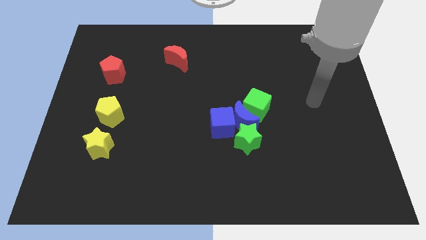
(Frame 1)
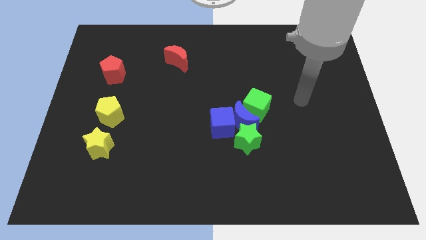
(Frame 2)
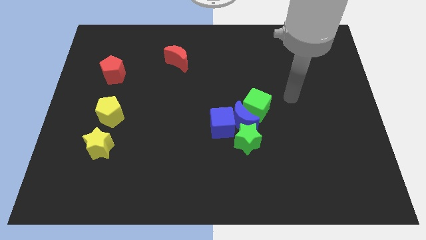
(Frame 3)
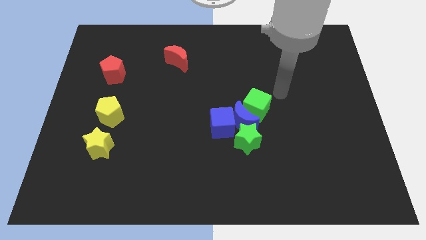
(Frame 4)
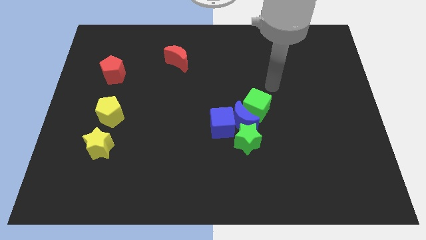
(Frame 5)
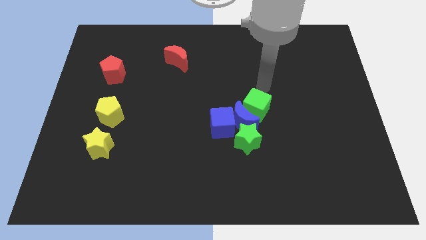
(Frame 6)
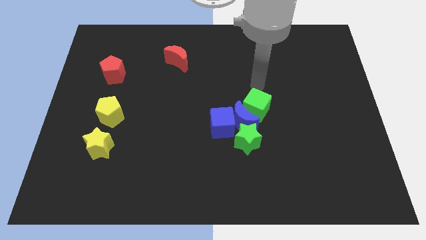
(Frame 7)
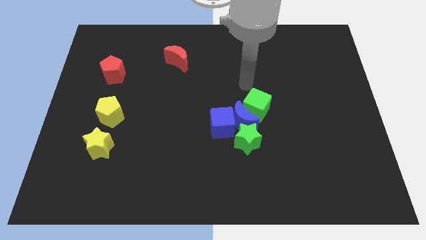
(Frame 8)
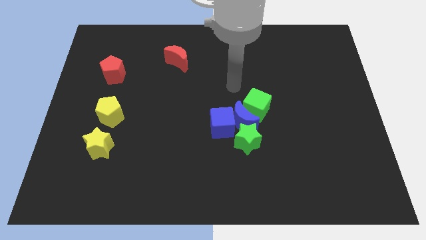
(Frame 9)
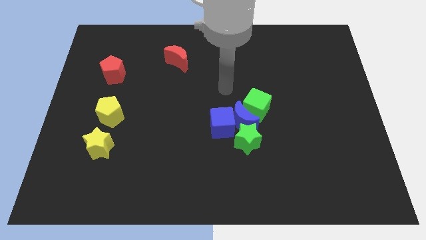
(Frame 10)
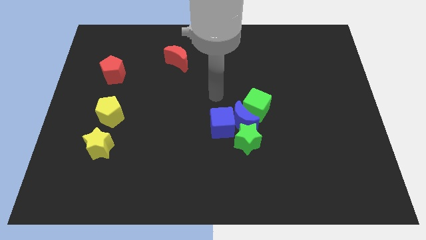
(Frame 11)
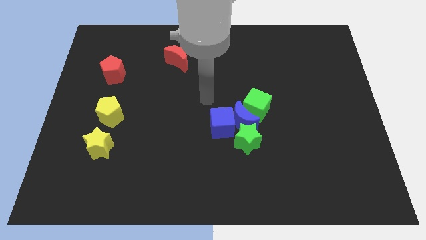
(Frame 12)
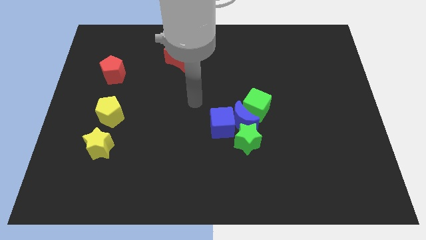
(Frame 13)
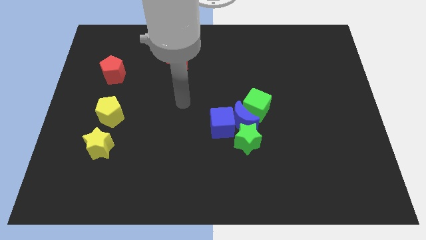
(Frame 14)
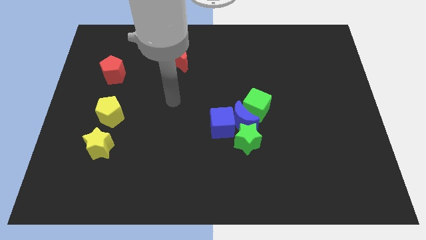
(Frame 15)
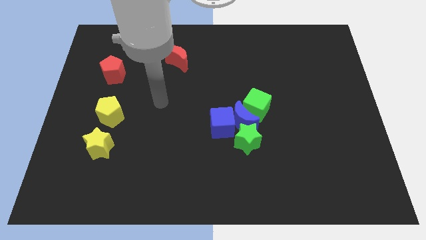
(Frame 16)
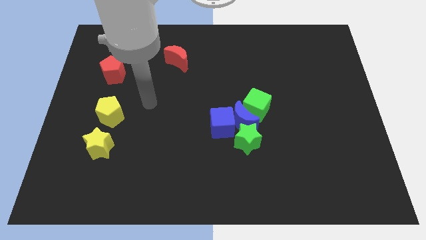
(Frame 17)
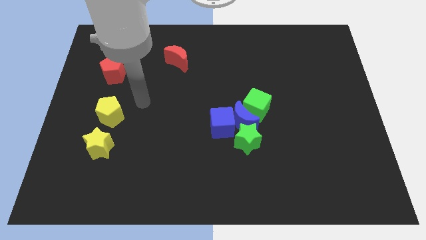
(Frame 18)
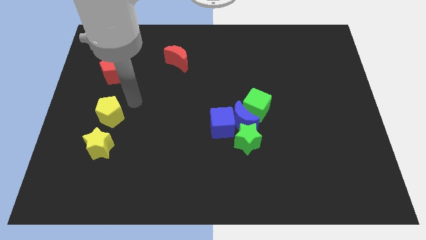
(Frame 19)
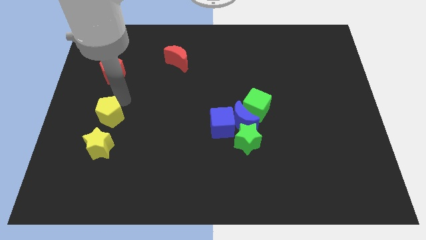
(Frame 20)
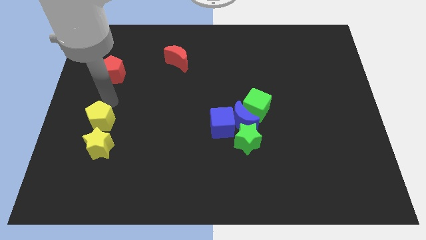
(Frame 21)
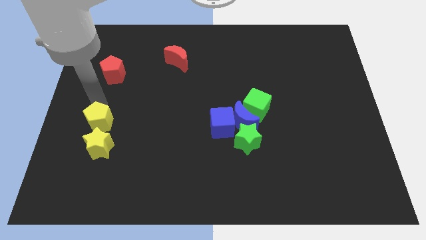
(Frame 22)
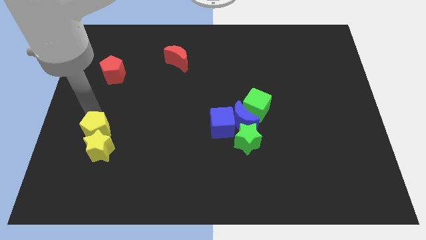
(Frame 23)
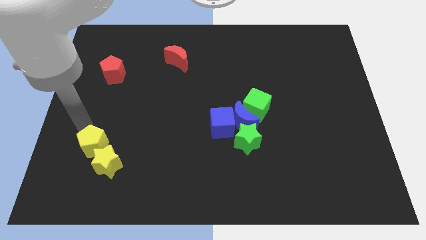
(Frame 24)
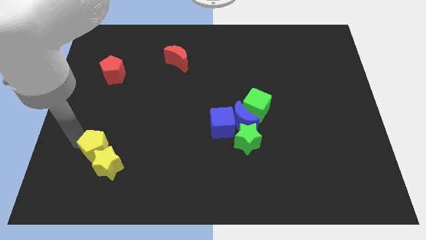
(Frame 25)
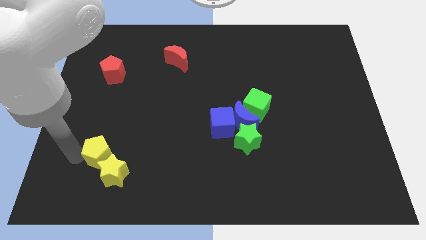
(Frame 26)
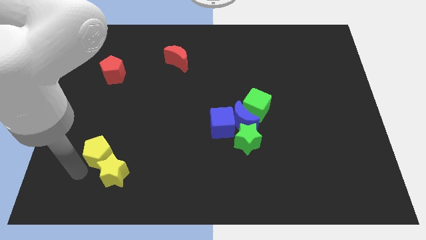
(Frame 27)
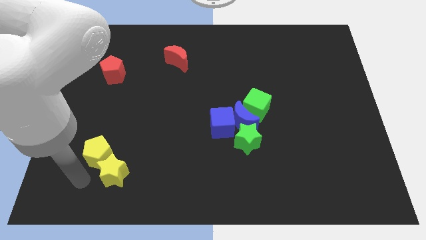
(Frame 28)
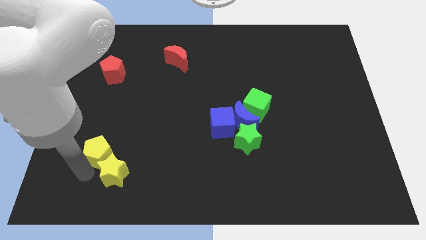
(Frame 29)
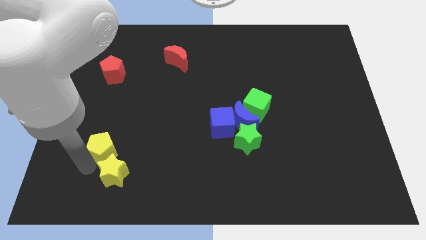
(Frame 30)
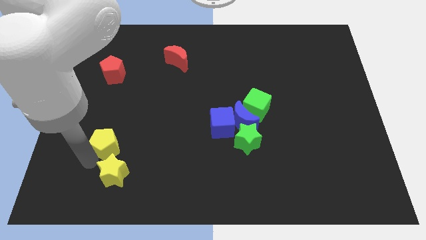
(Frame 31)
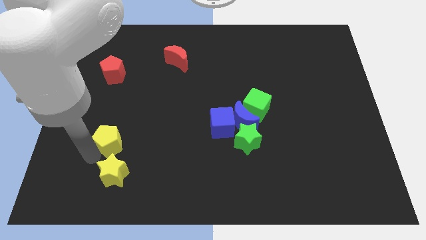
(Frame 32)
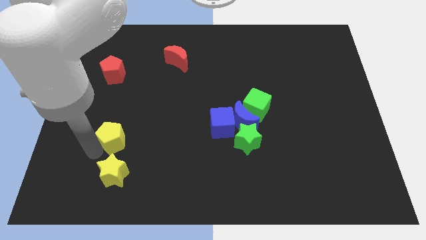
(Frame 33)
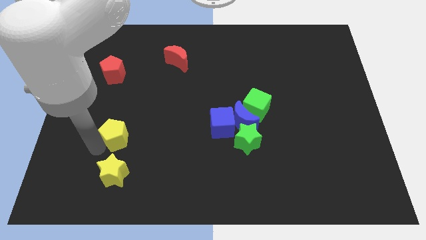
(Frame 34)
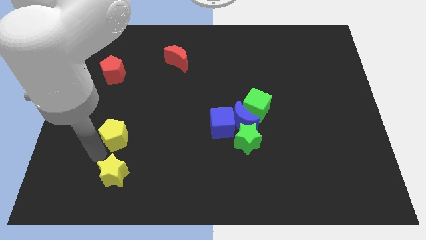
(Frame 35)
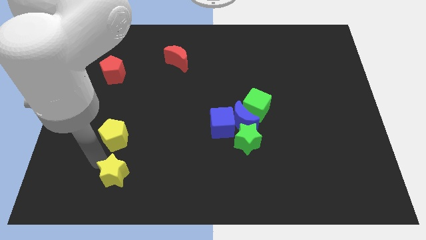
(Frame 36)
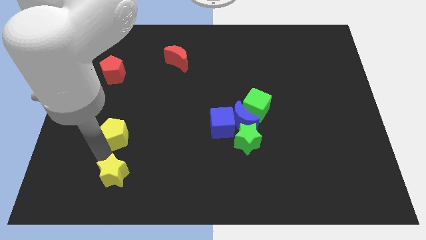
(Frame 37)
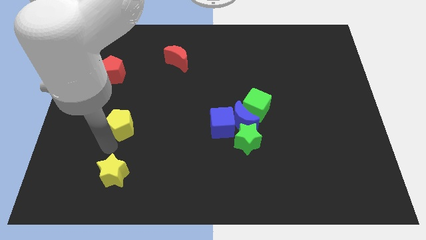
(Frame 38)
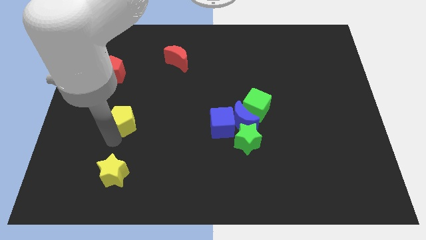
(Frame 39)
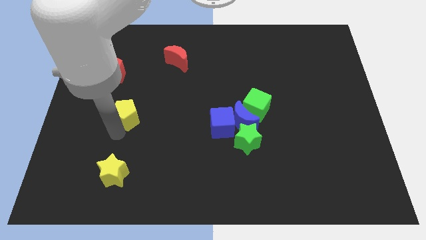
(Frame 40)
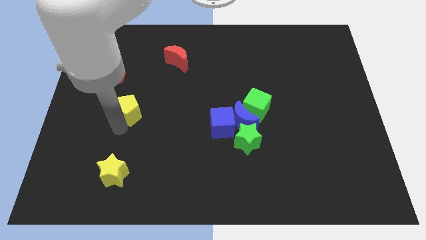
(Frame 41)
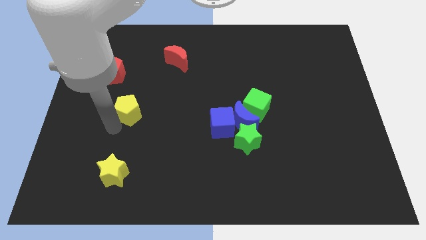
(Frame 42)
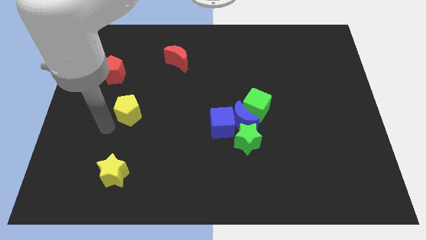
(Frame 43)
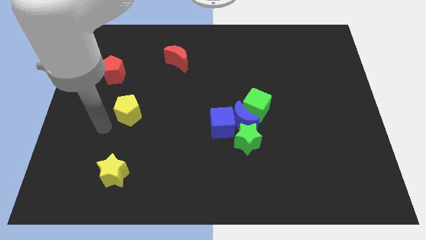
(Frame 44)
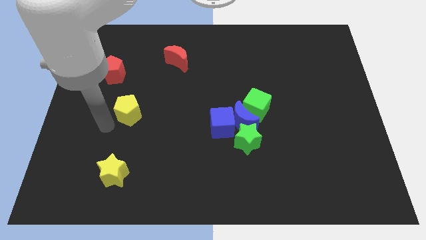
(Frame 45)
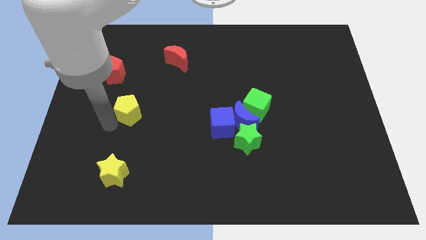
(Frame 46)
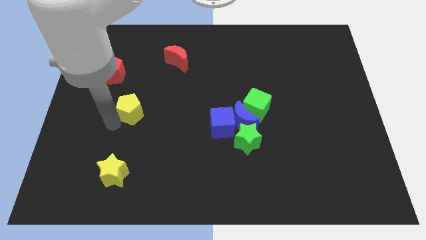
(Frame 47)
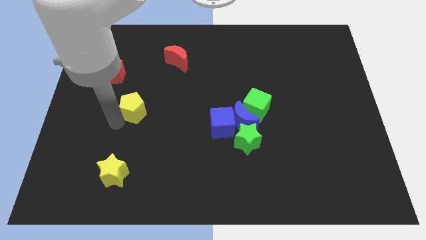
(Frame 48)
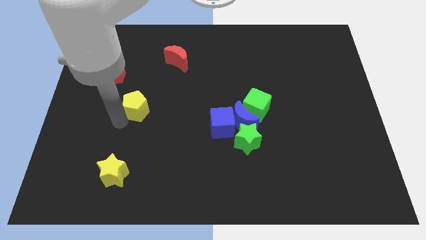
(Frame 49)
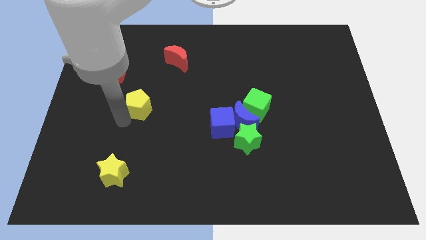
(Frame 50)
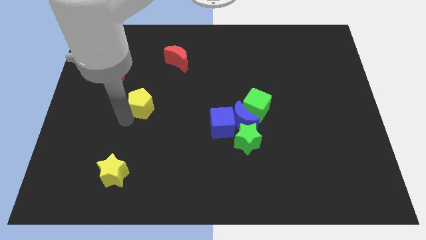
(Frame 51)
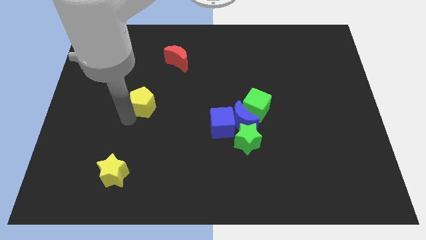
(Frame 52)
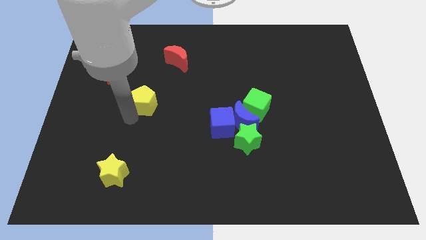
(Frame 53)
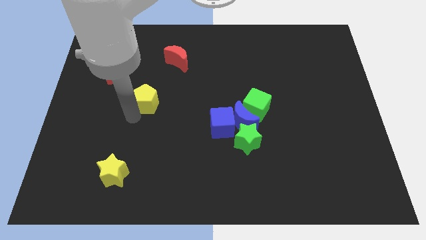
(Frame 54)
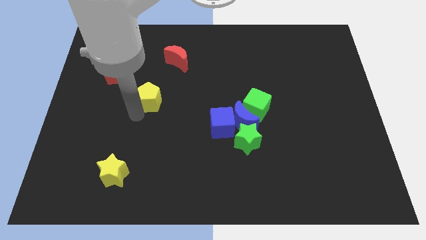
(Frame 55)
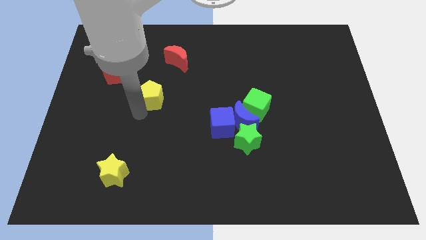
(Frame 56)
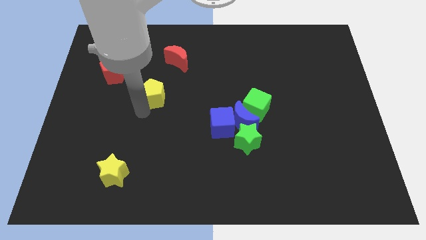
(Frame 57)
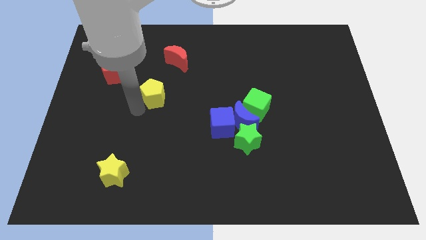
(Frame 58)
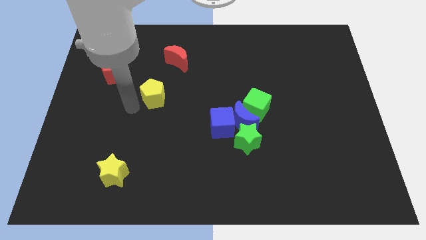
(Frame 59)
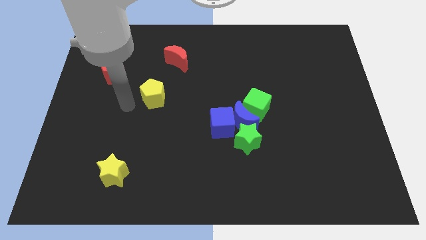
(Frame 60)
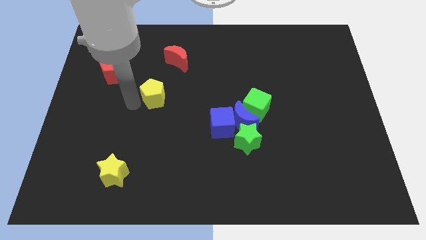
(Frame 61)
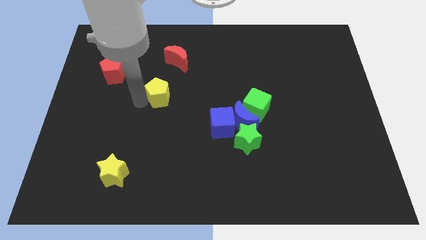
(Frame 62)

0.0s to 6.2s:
put the yellow pentagon to the bottom side of the red moon

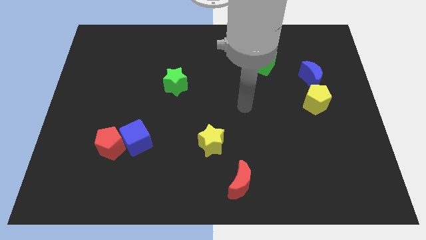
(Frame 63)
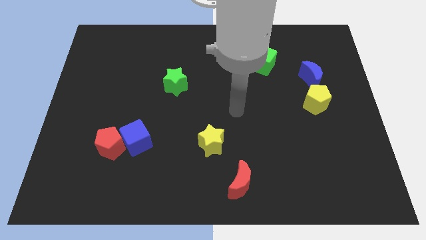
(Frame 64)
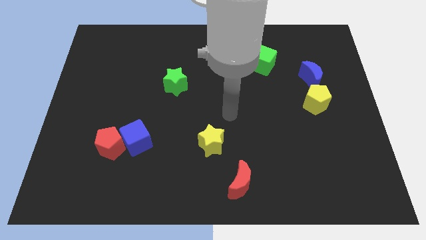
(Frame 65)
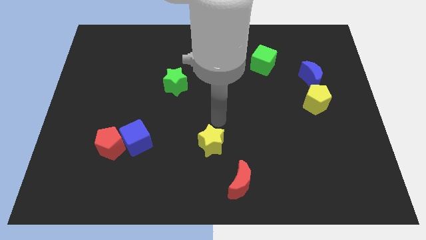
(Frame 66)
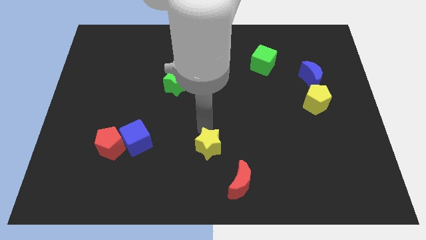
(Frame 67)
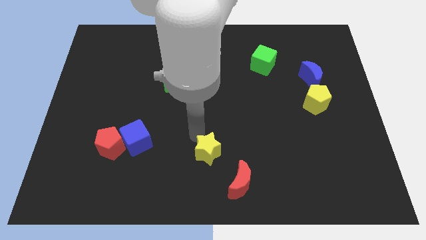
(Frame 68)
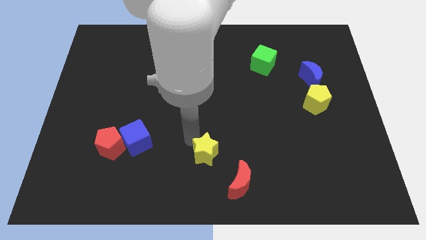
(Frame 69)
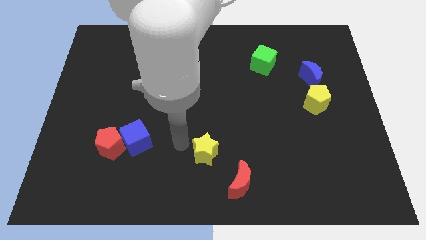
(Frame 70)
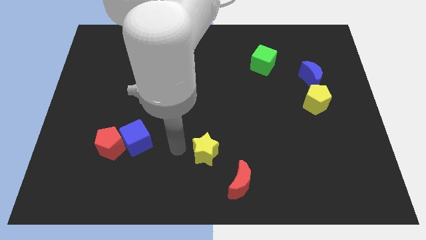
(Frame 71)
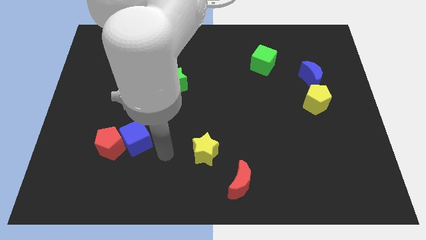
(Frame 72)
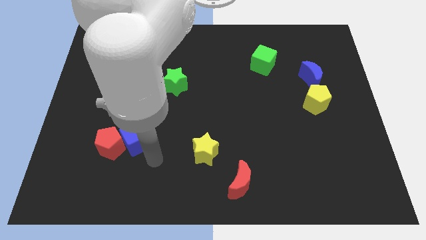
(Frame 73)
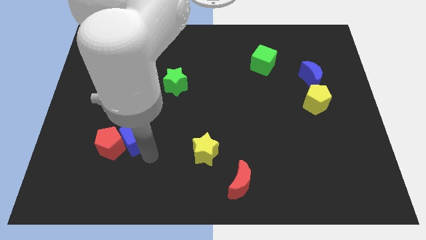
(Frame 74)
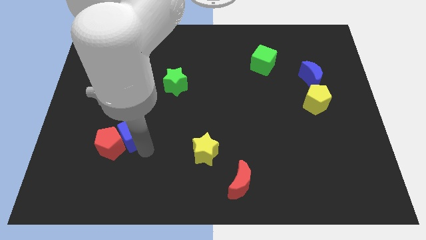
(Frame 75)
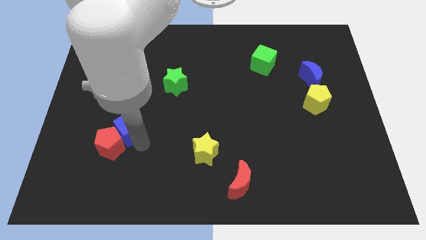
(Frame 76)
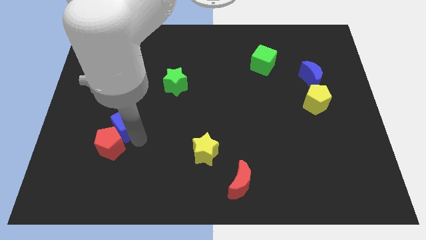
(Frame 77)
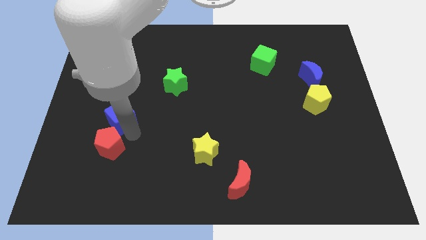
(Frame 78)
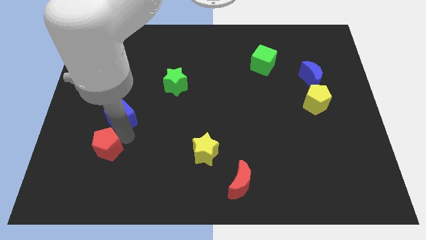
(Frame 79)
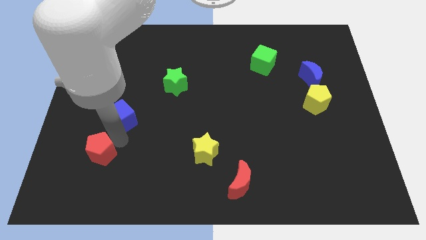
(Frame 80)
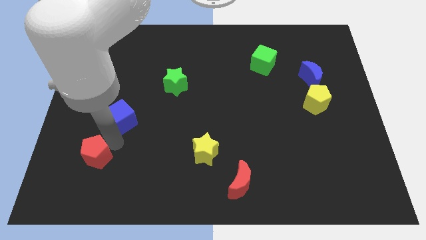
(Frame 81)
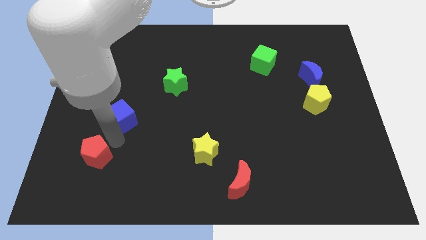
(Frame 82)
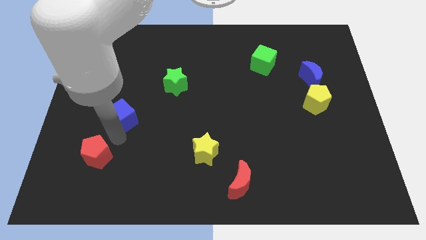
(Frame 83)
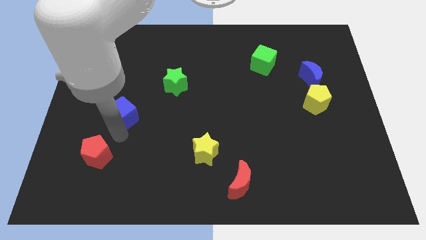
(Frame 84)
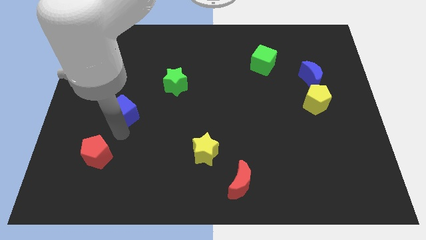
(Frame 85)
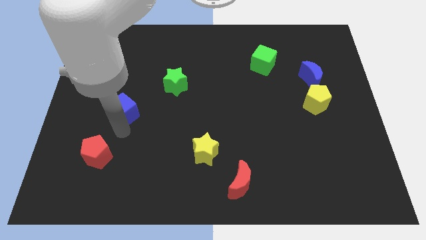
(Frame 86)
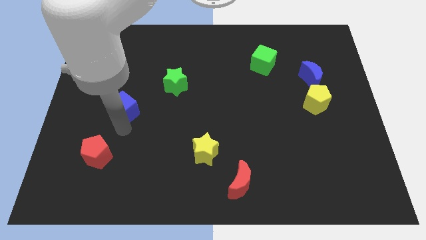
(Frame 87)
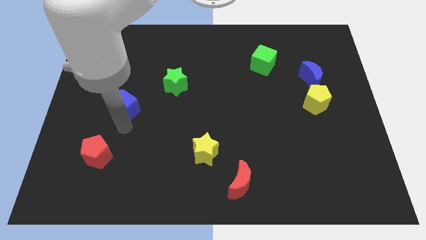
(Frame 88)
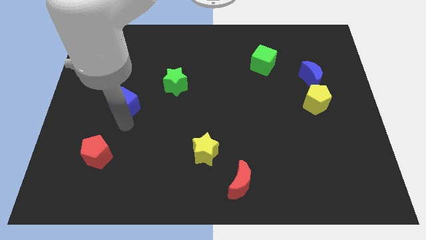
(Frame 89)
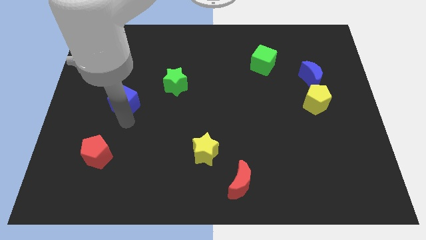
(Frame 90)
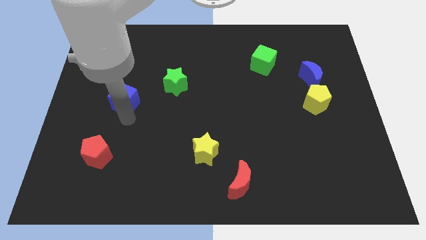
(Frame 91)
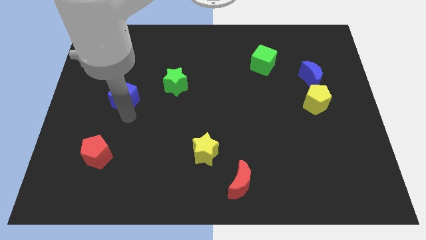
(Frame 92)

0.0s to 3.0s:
move the blue cube to the left of the green star
